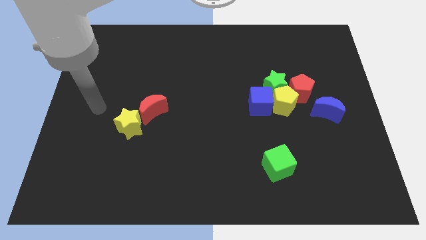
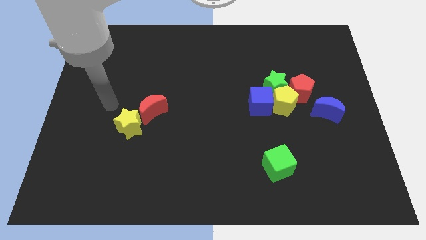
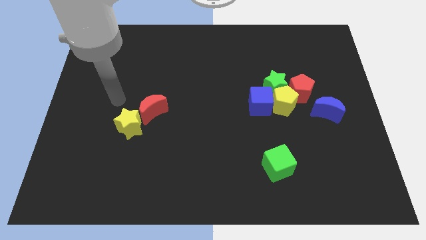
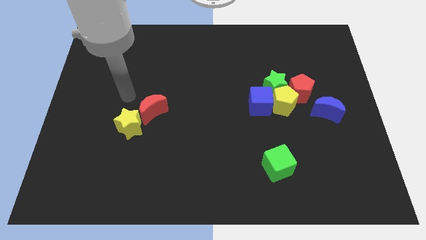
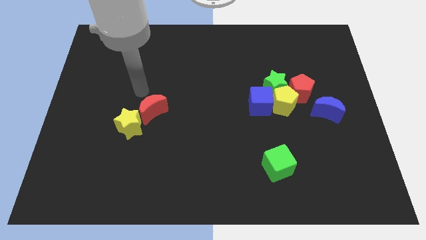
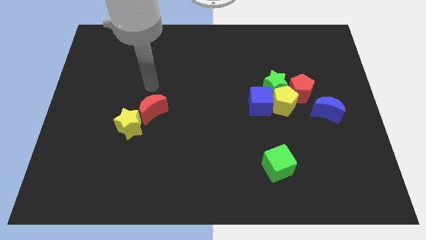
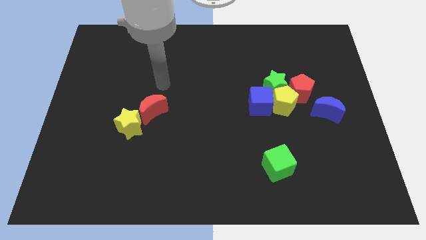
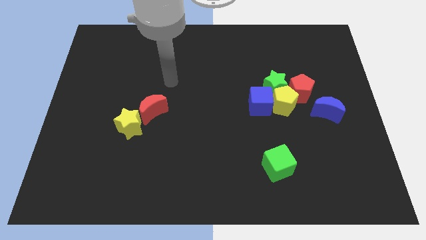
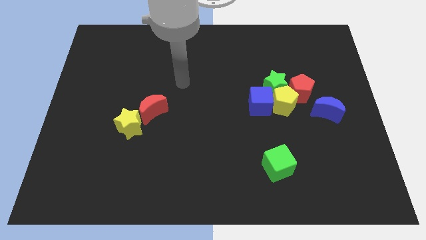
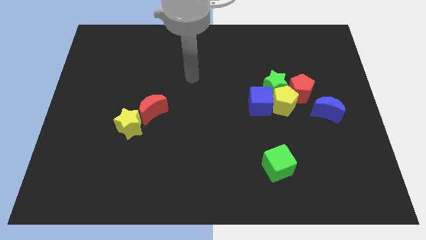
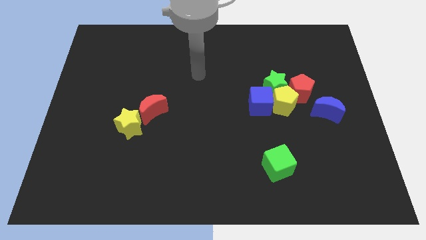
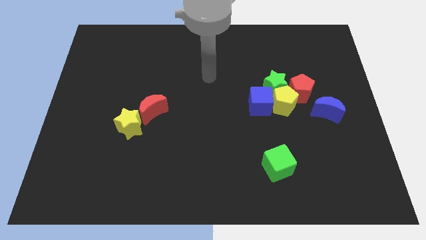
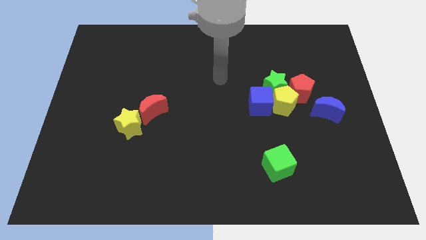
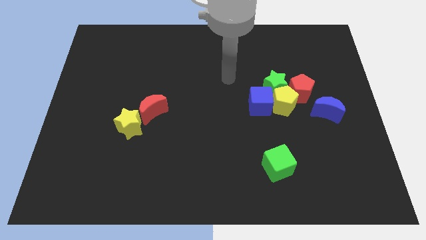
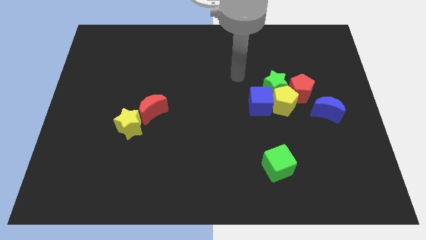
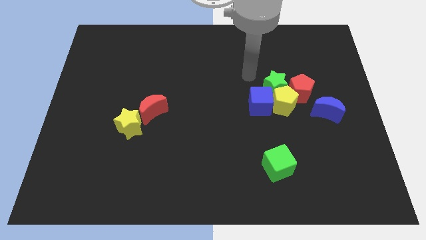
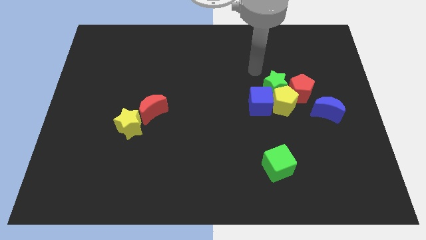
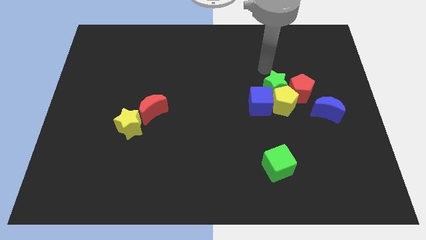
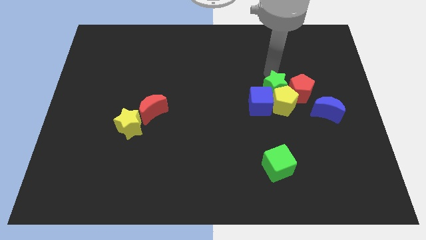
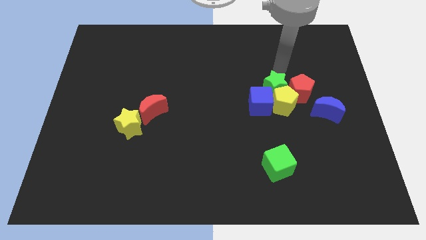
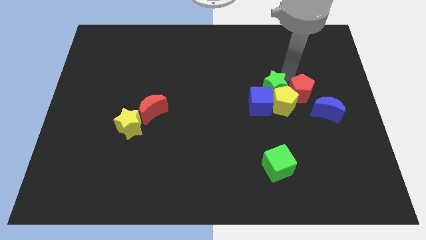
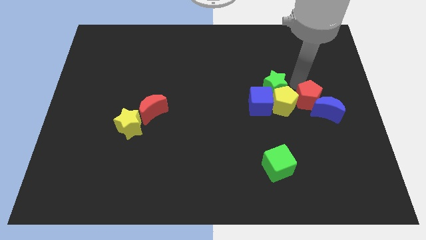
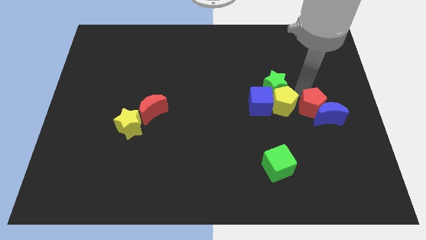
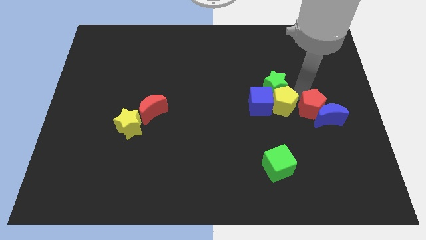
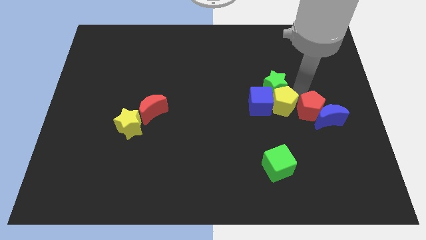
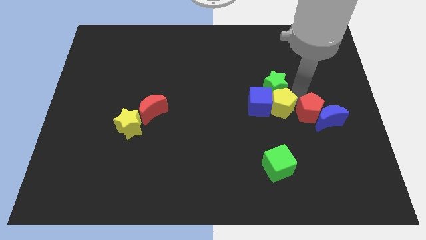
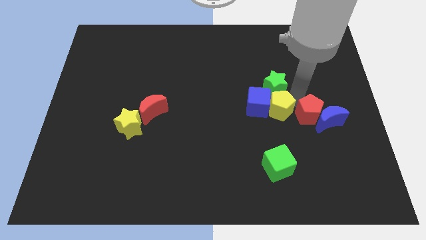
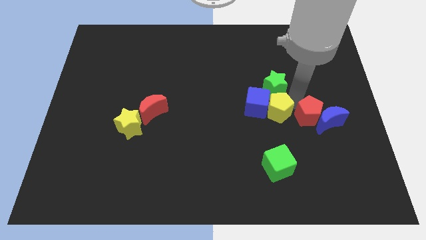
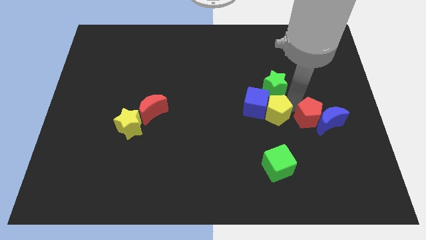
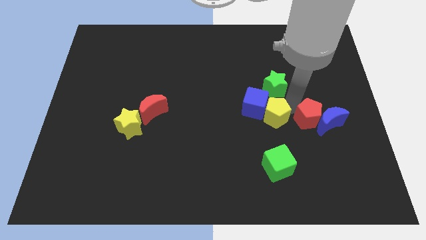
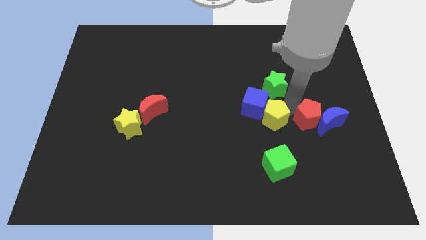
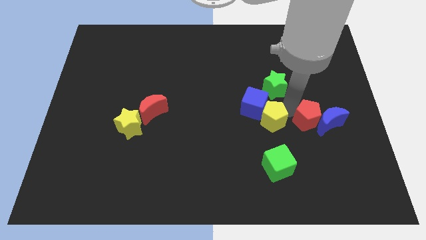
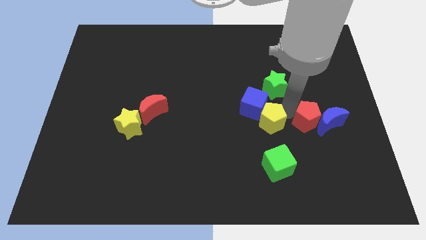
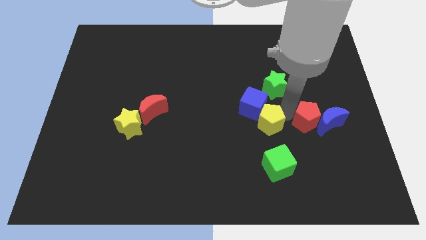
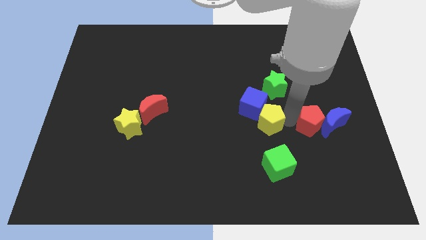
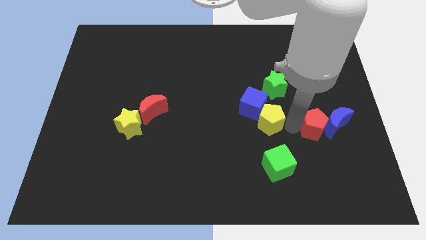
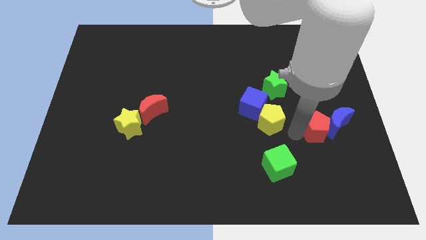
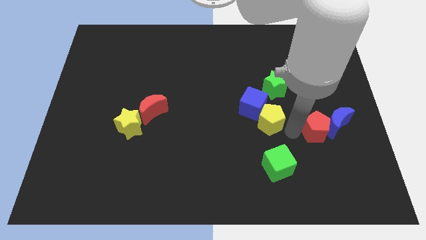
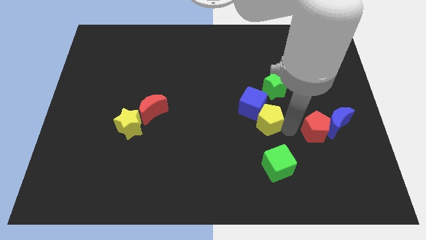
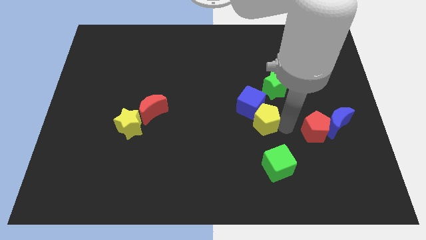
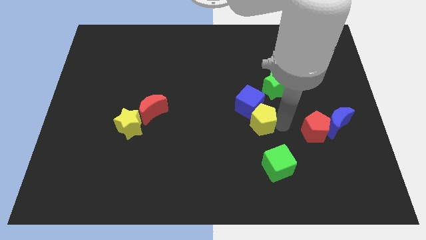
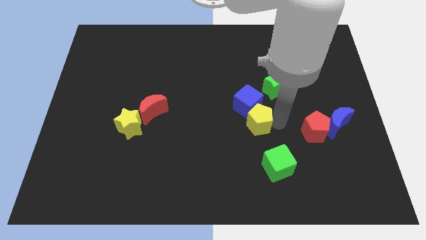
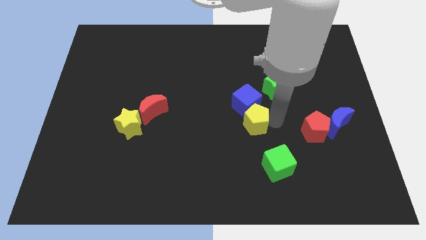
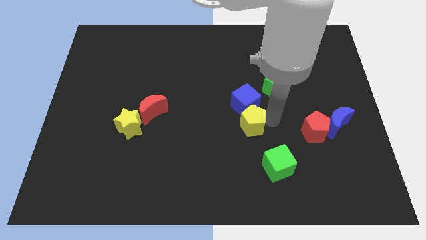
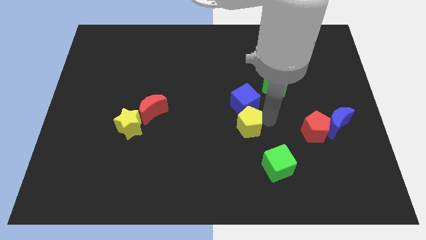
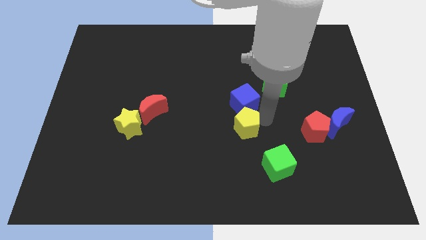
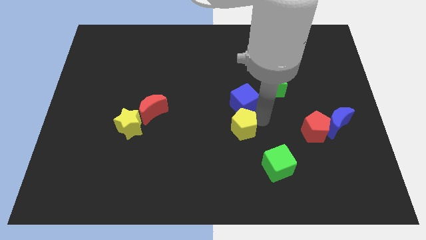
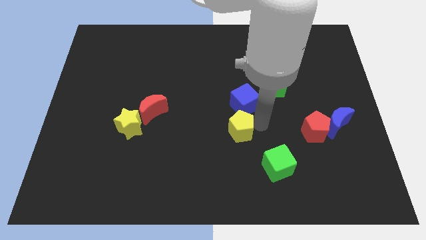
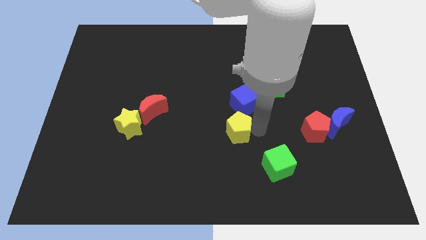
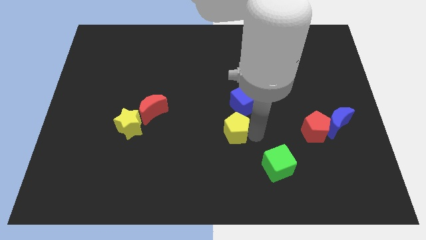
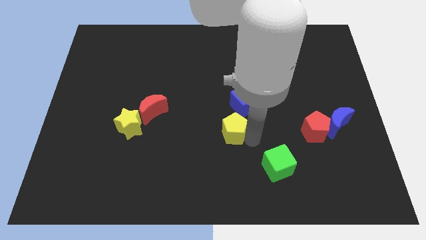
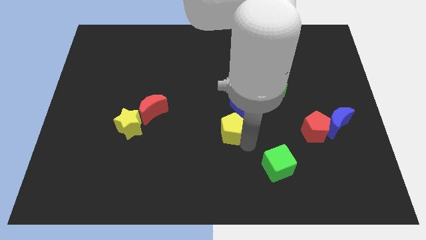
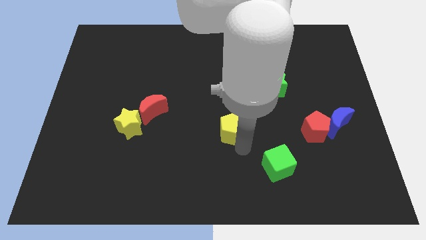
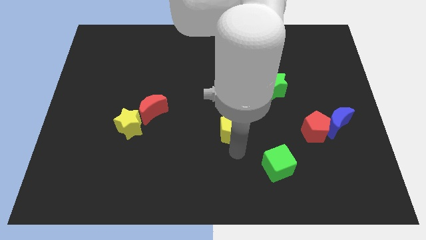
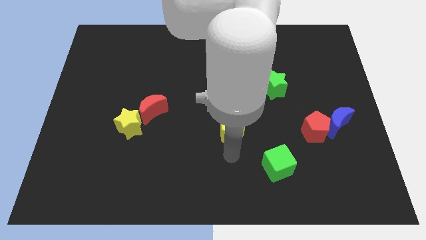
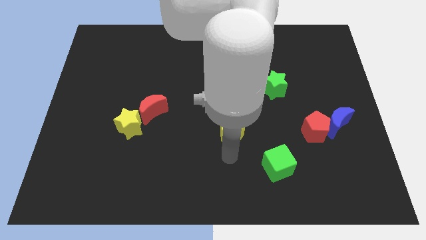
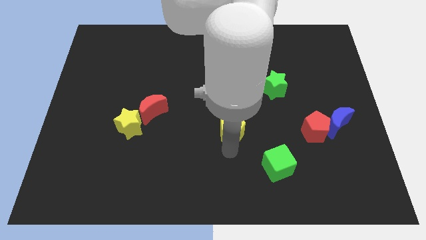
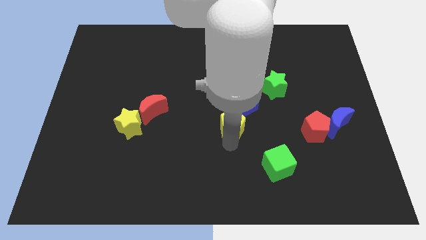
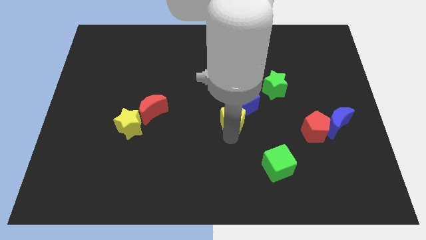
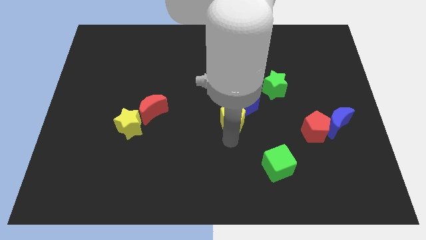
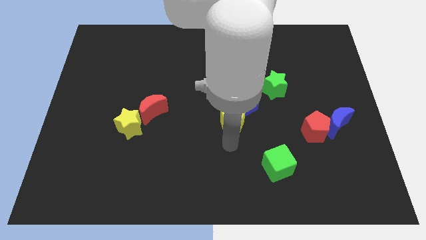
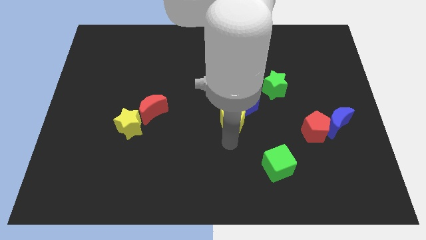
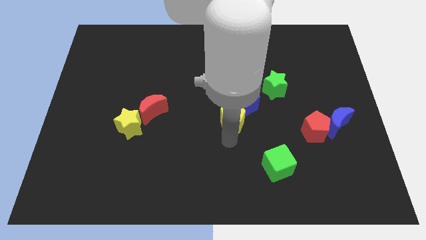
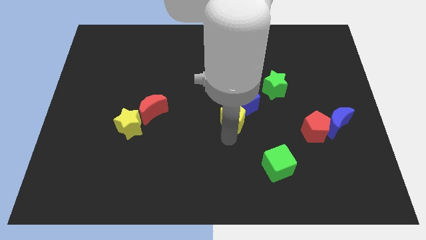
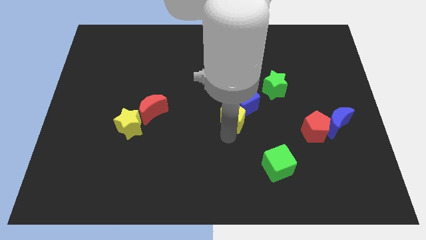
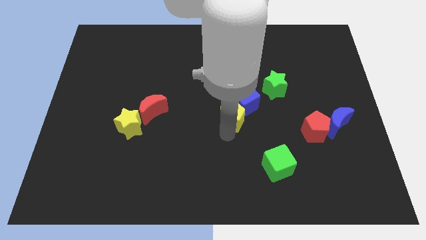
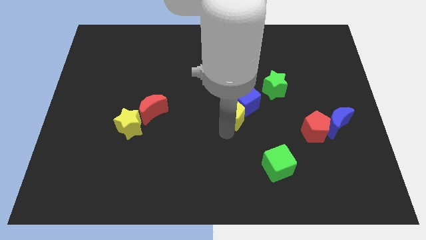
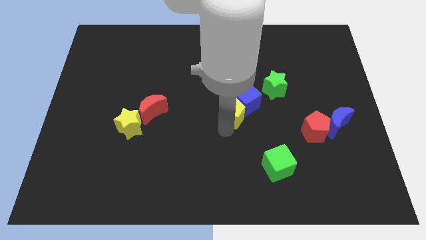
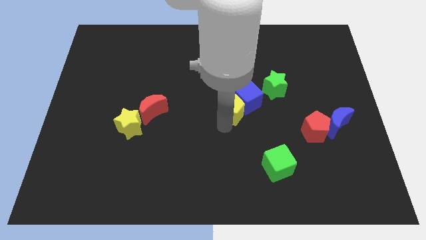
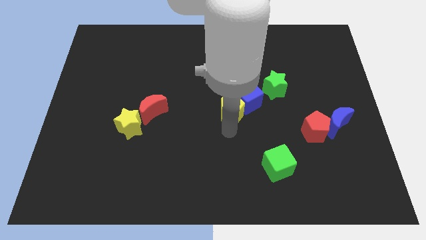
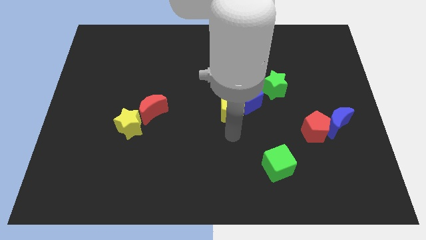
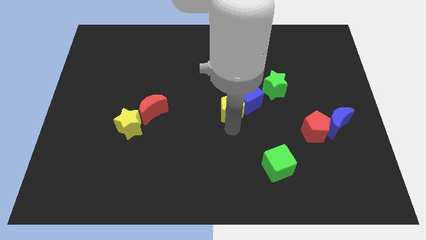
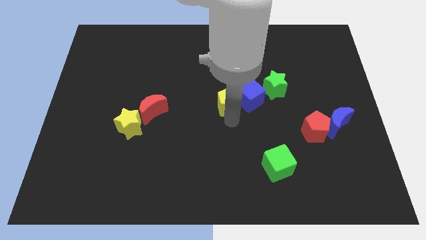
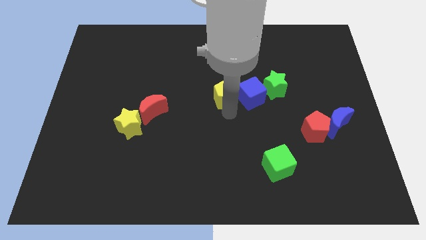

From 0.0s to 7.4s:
slide the yellow pentagon somewhat upwards and left diagonally

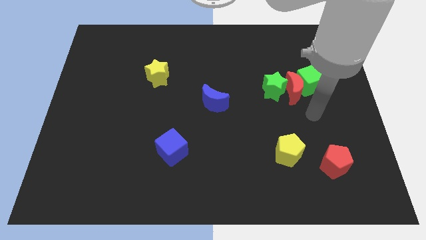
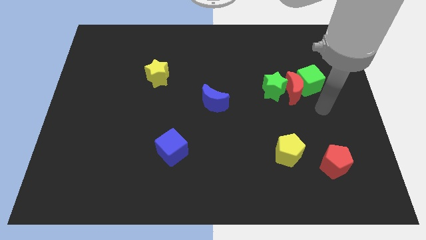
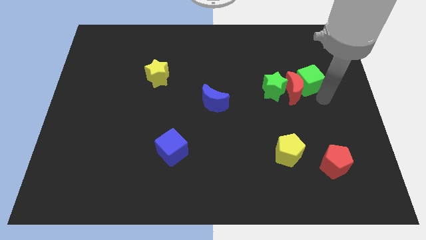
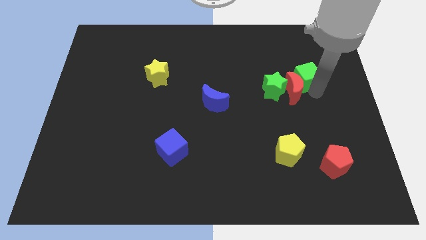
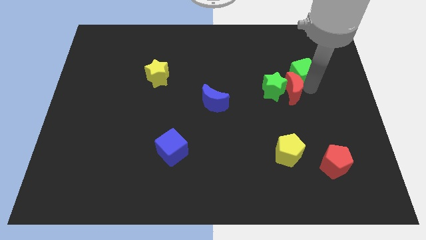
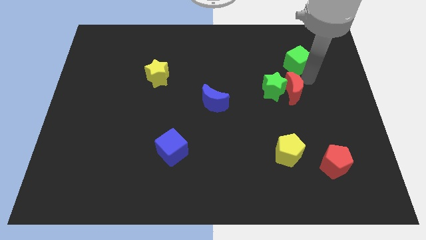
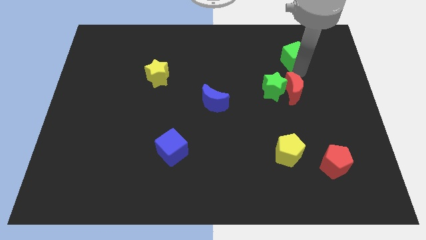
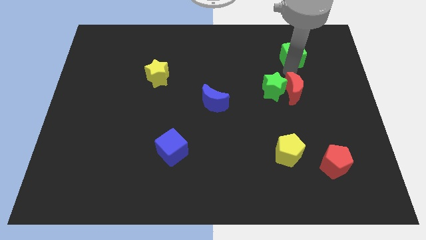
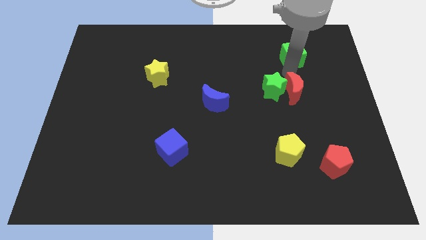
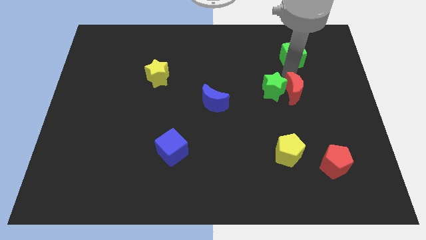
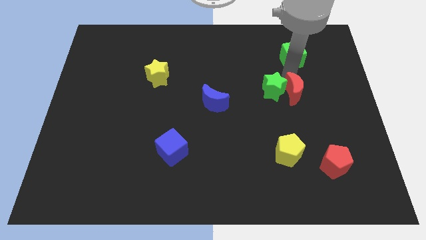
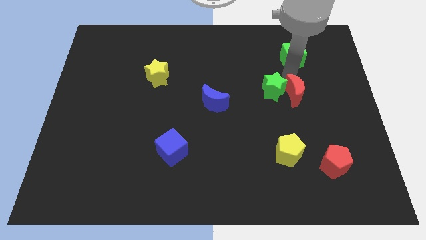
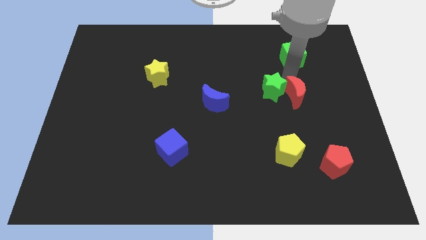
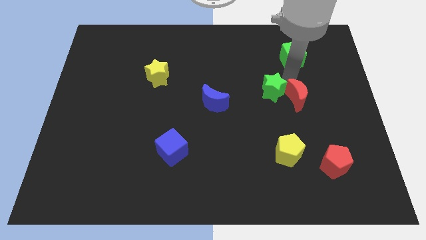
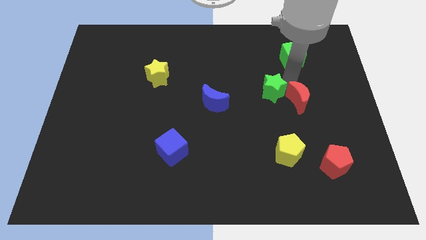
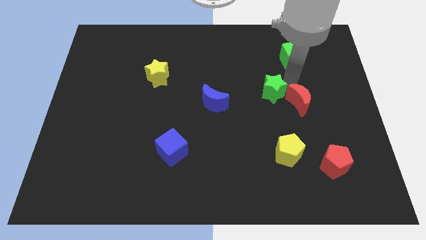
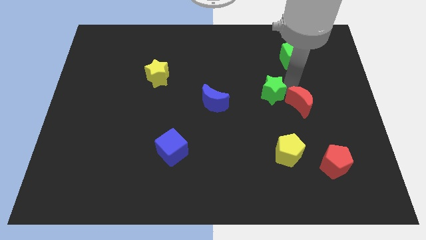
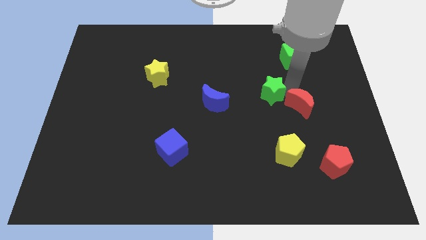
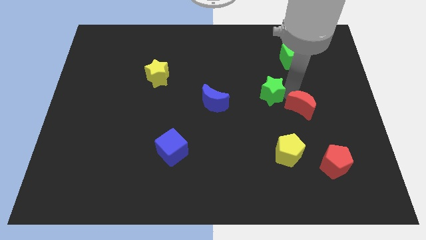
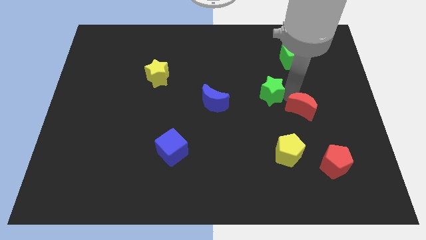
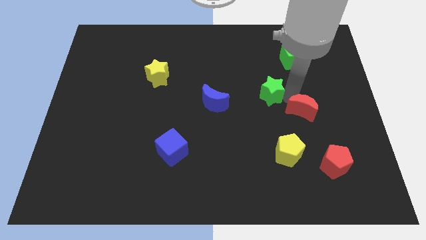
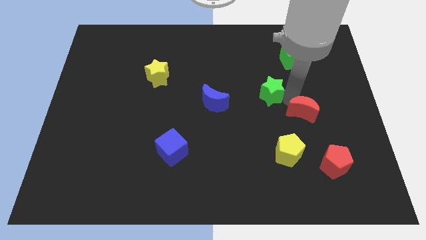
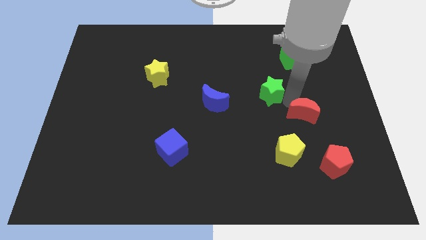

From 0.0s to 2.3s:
push the red moon downwards slightly
